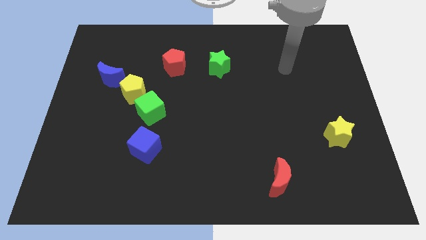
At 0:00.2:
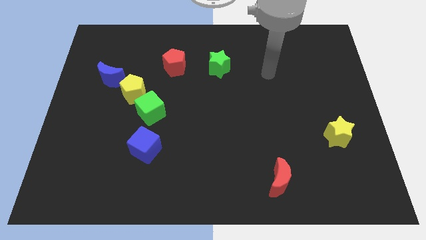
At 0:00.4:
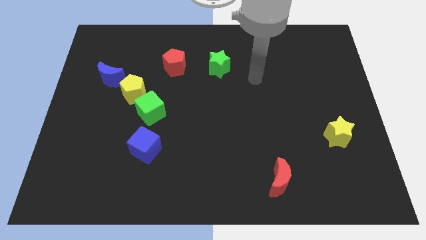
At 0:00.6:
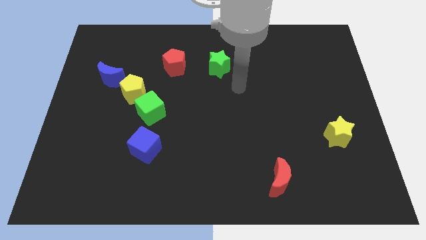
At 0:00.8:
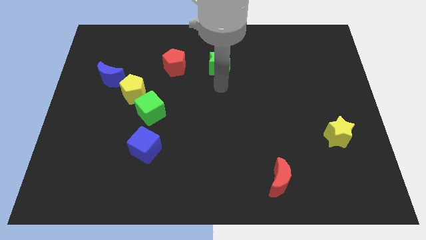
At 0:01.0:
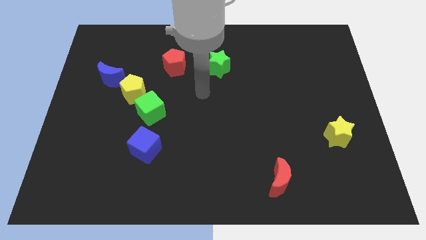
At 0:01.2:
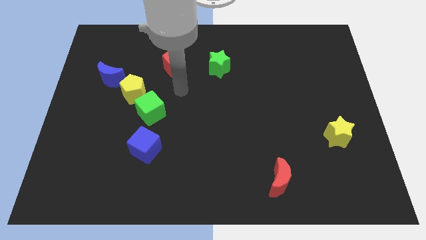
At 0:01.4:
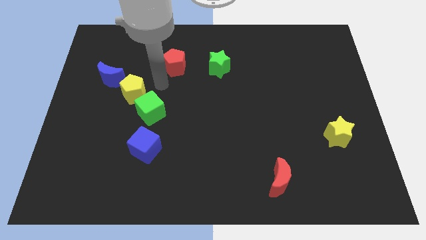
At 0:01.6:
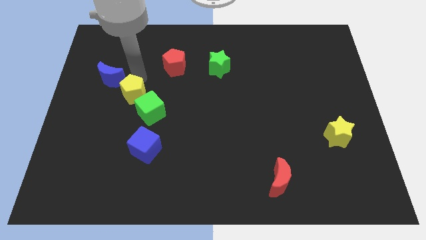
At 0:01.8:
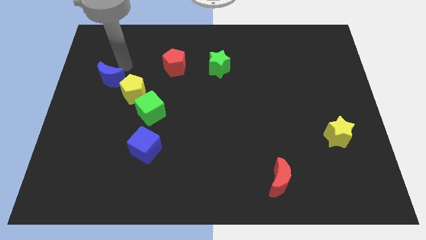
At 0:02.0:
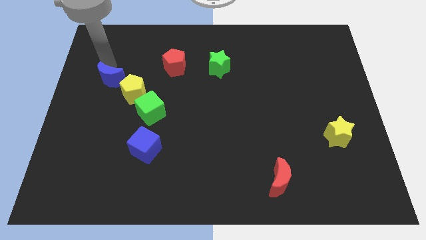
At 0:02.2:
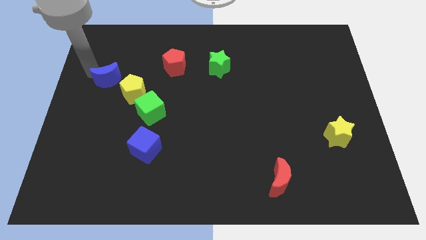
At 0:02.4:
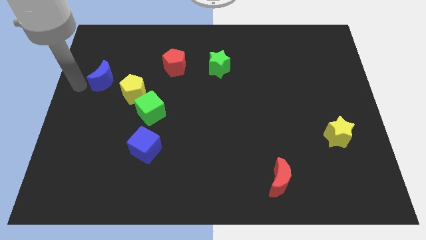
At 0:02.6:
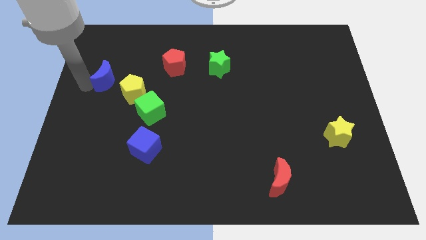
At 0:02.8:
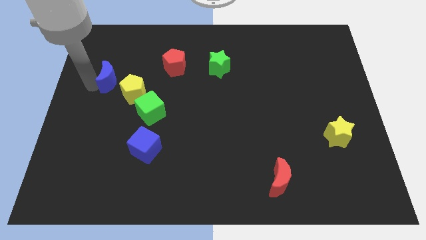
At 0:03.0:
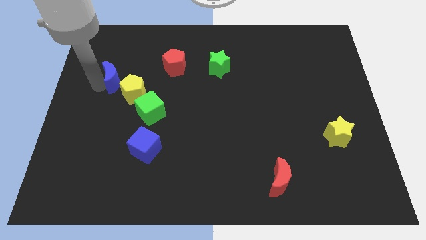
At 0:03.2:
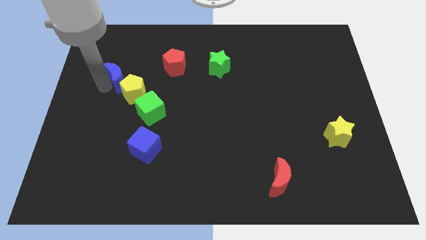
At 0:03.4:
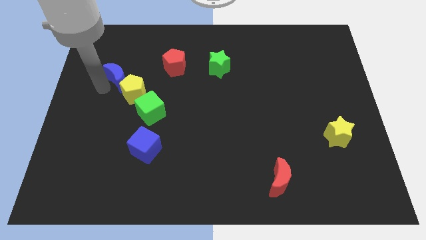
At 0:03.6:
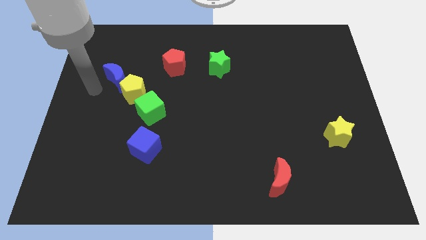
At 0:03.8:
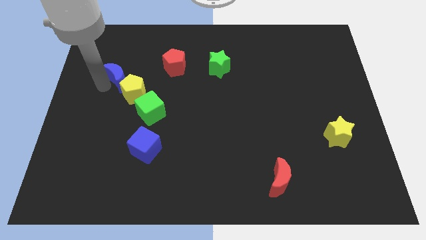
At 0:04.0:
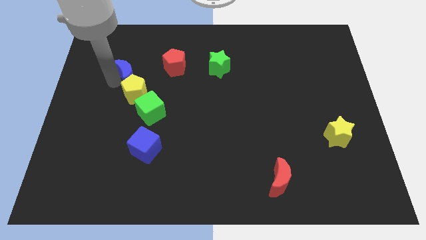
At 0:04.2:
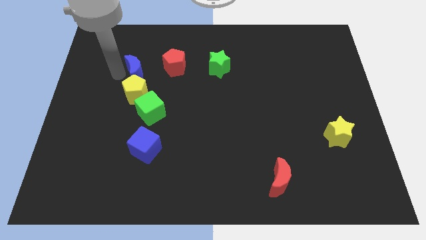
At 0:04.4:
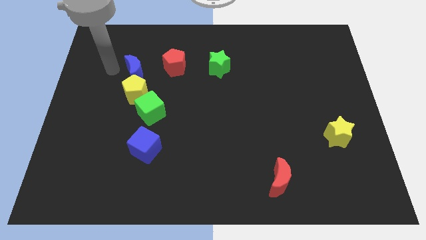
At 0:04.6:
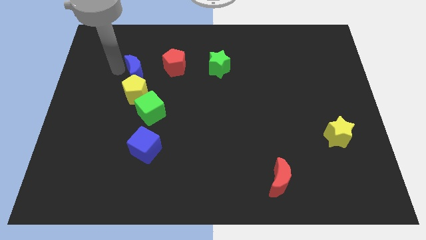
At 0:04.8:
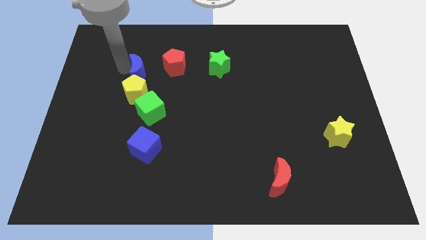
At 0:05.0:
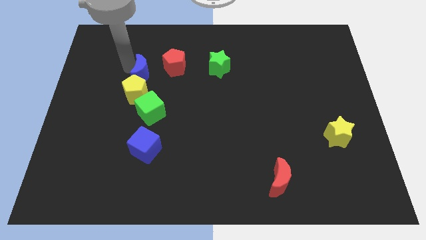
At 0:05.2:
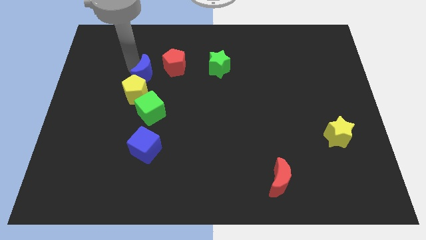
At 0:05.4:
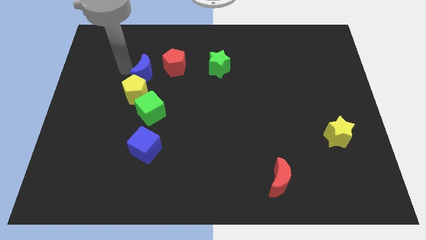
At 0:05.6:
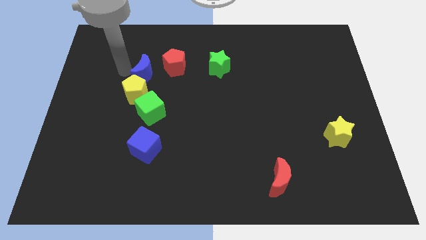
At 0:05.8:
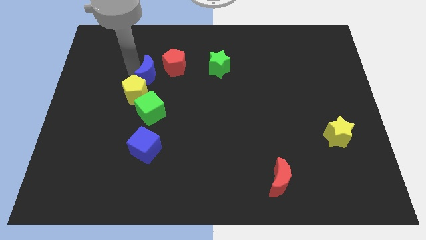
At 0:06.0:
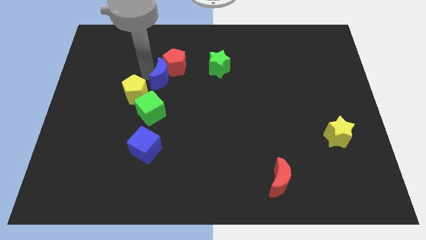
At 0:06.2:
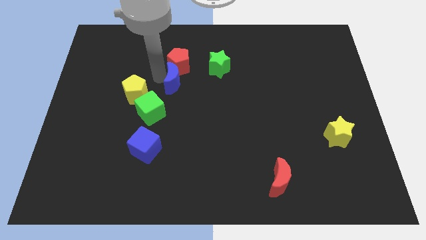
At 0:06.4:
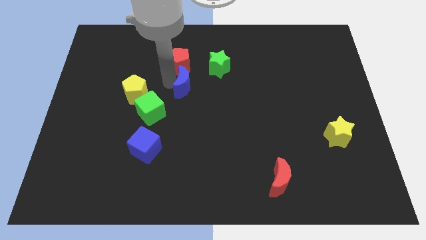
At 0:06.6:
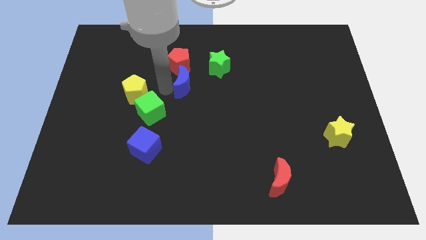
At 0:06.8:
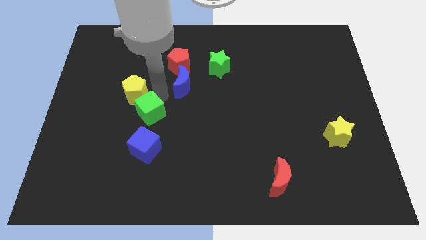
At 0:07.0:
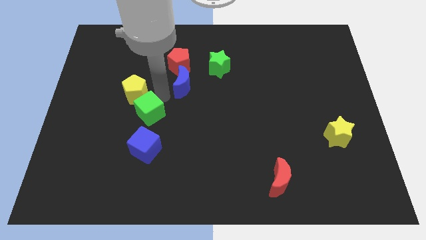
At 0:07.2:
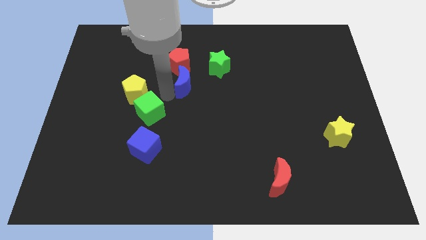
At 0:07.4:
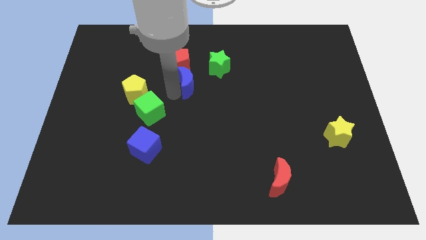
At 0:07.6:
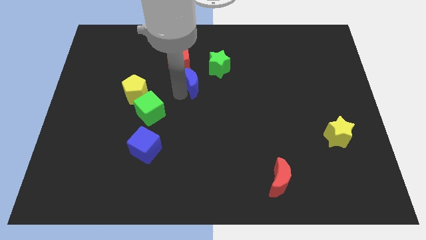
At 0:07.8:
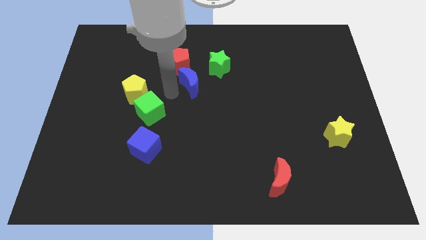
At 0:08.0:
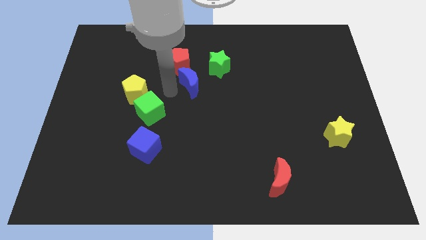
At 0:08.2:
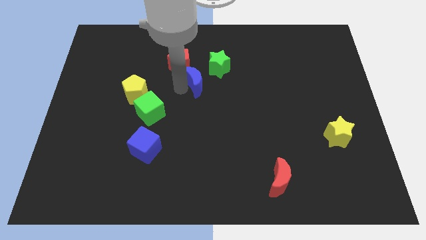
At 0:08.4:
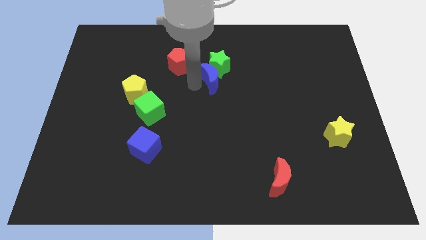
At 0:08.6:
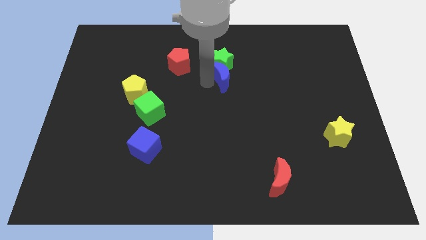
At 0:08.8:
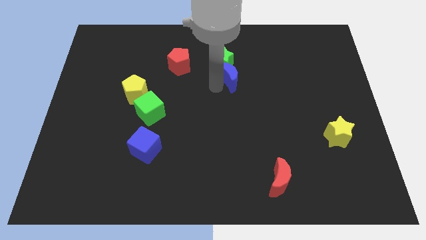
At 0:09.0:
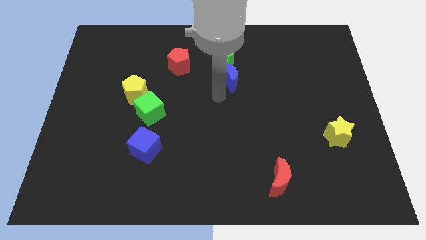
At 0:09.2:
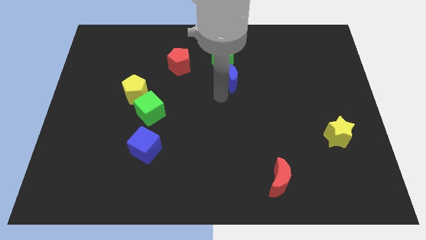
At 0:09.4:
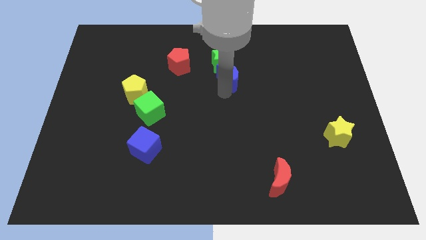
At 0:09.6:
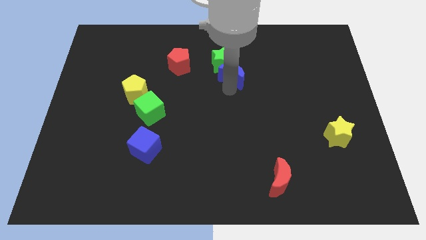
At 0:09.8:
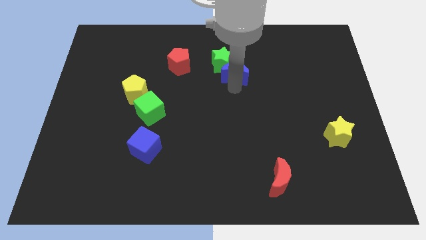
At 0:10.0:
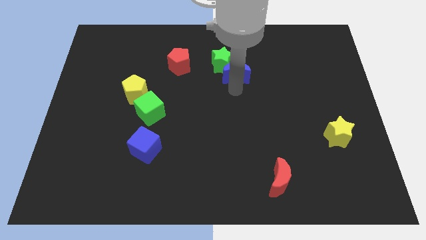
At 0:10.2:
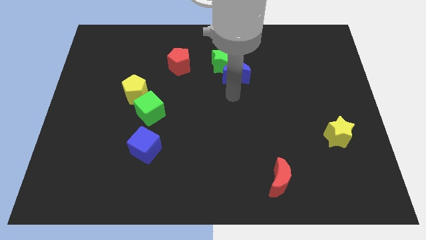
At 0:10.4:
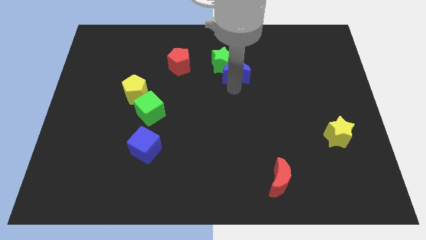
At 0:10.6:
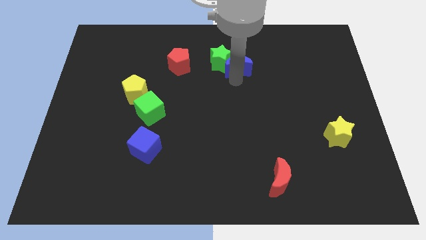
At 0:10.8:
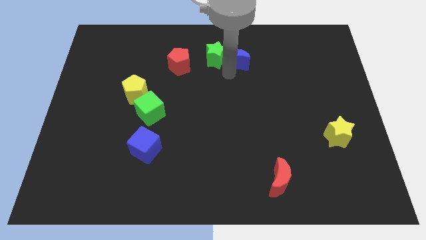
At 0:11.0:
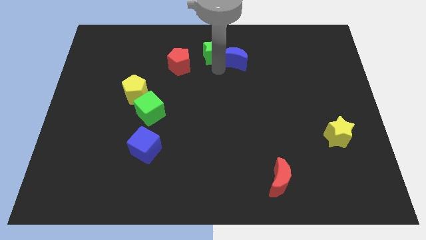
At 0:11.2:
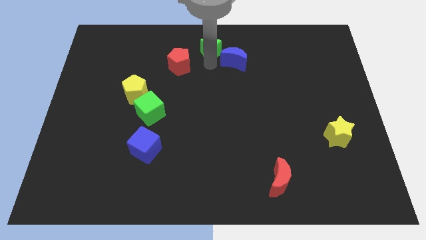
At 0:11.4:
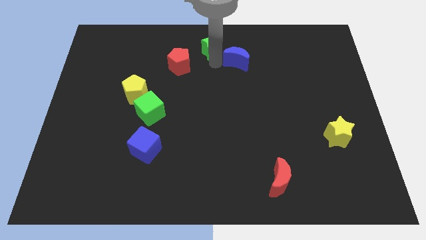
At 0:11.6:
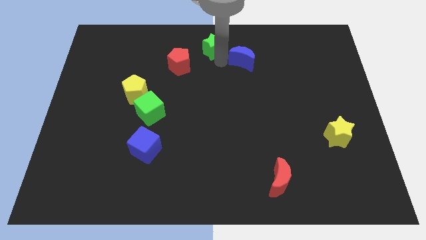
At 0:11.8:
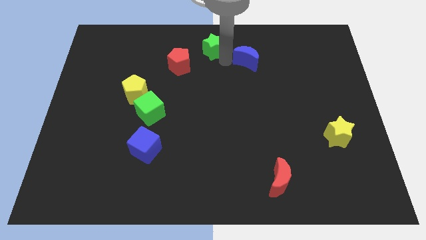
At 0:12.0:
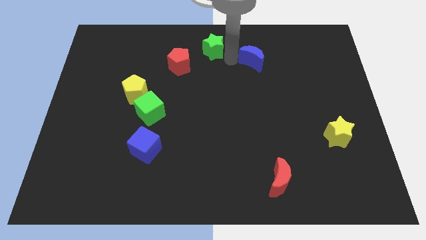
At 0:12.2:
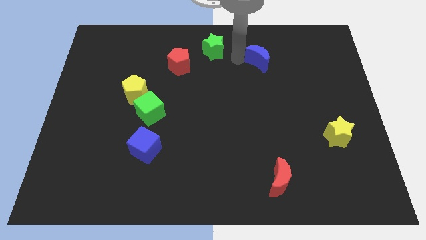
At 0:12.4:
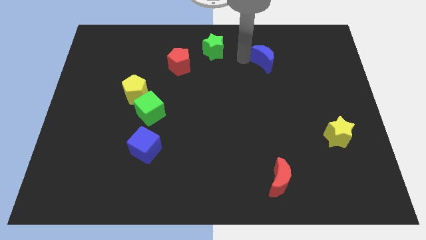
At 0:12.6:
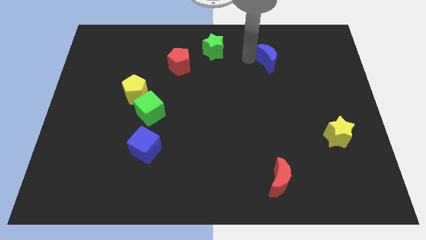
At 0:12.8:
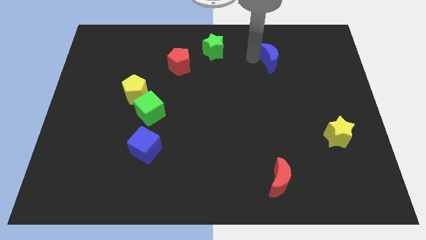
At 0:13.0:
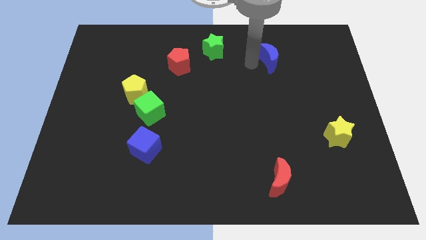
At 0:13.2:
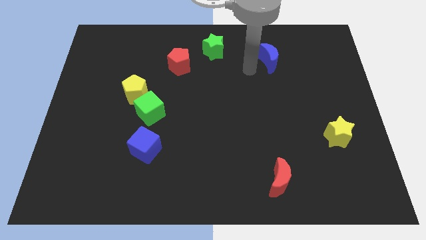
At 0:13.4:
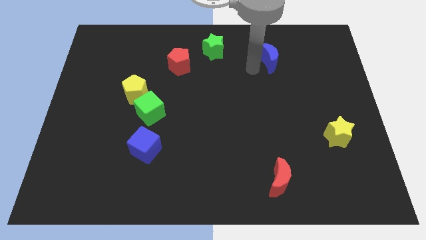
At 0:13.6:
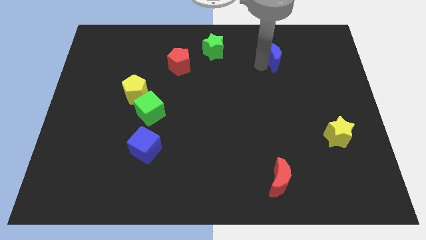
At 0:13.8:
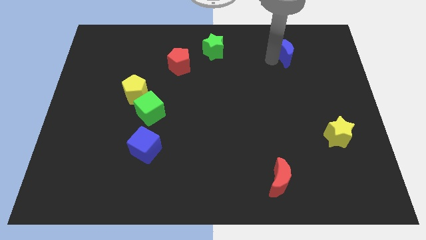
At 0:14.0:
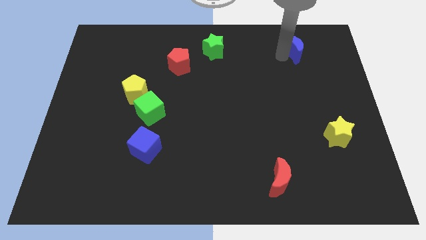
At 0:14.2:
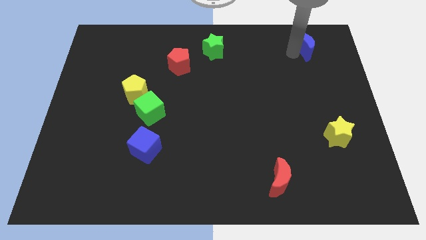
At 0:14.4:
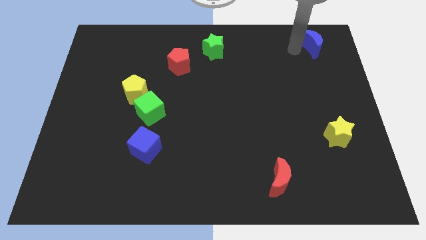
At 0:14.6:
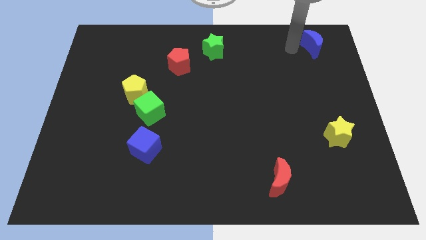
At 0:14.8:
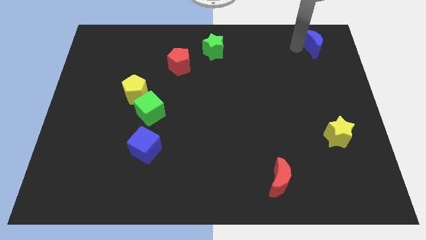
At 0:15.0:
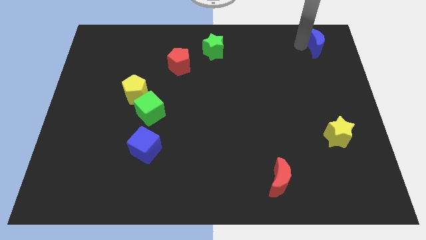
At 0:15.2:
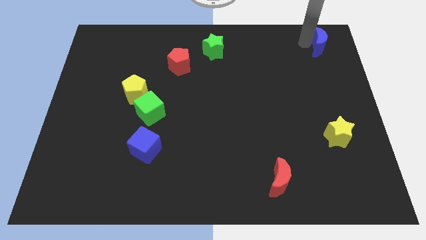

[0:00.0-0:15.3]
move the blue moon to the top right corner
